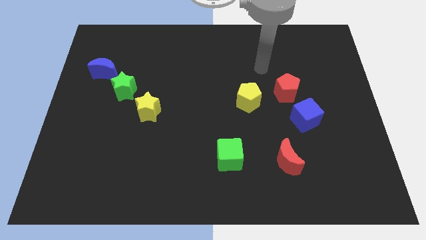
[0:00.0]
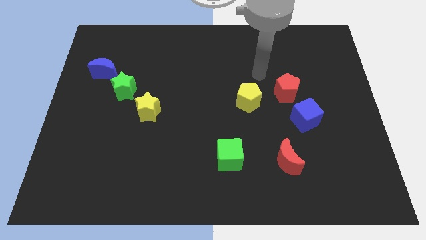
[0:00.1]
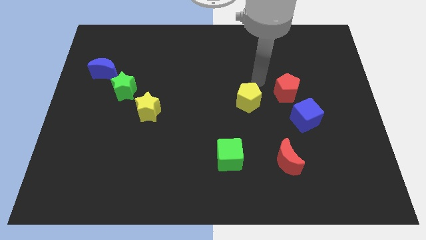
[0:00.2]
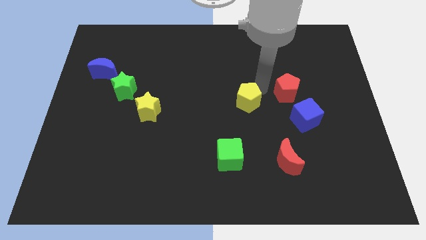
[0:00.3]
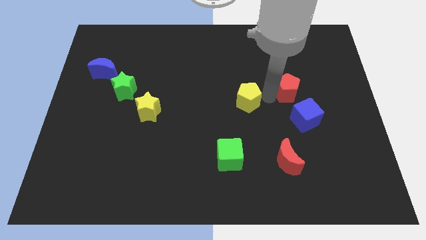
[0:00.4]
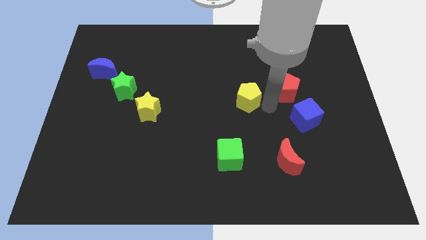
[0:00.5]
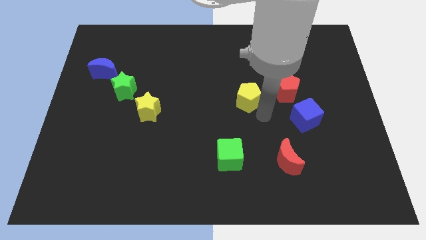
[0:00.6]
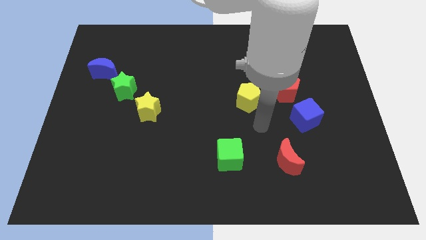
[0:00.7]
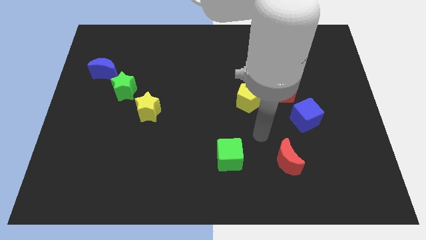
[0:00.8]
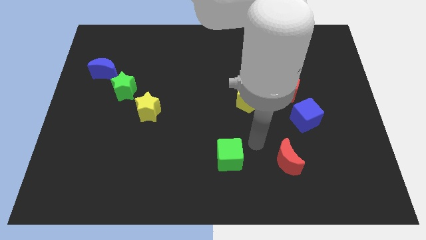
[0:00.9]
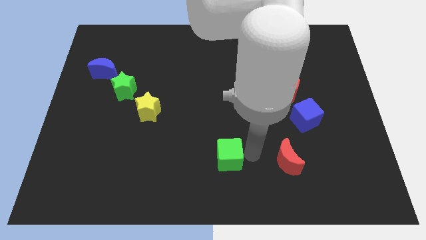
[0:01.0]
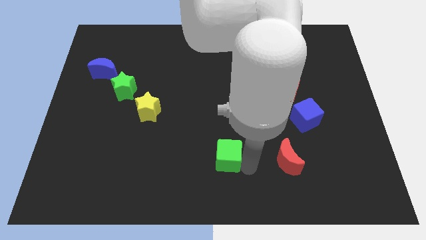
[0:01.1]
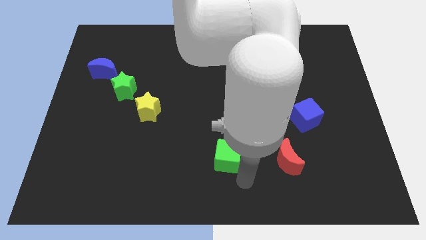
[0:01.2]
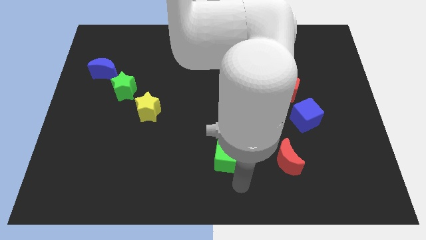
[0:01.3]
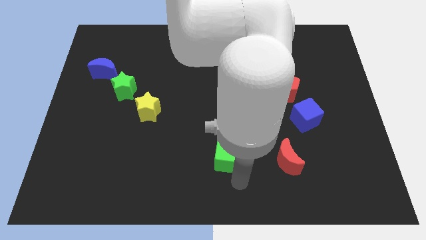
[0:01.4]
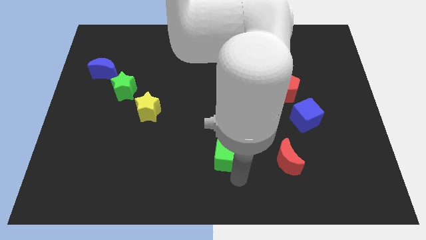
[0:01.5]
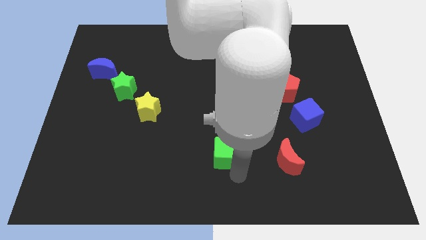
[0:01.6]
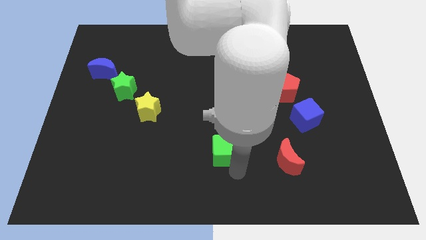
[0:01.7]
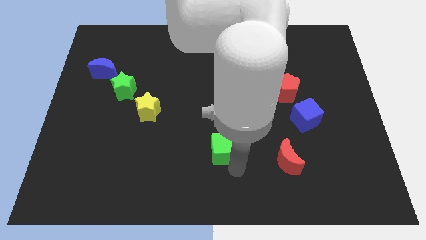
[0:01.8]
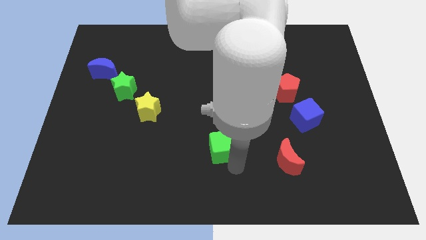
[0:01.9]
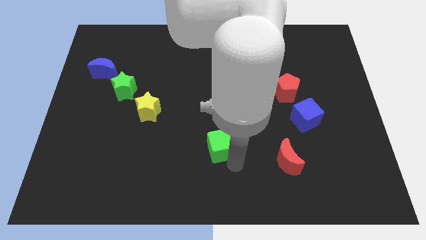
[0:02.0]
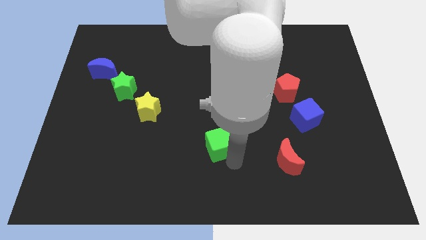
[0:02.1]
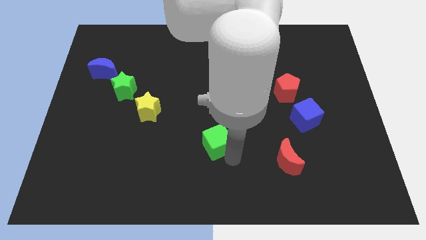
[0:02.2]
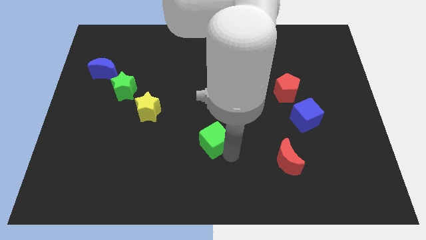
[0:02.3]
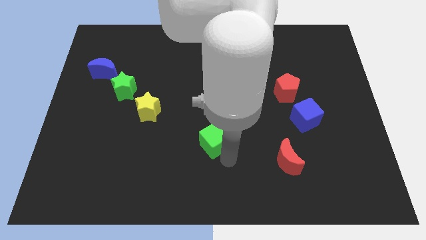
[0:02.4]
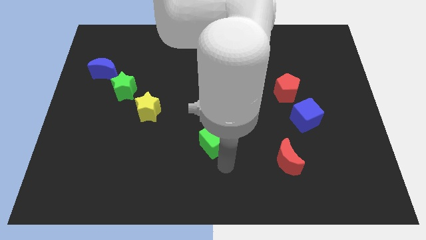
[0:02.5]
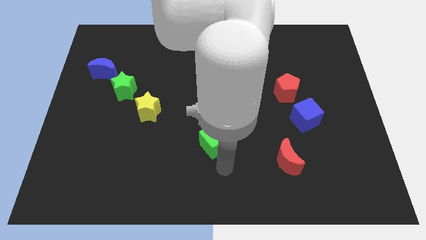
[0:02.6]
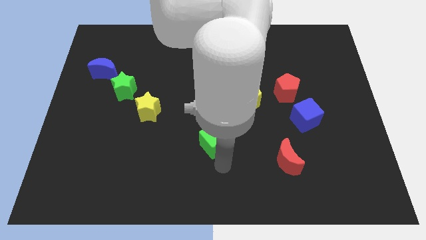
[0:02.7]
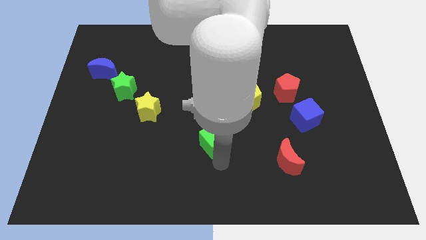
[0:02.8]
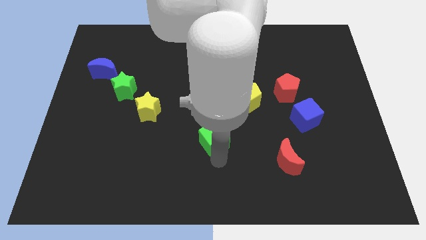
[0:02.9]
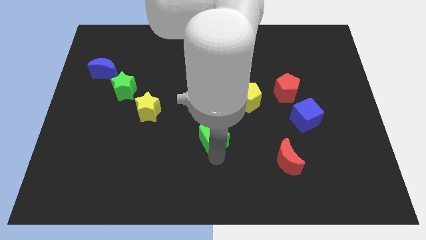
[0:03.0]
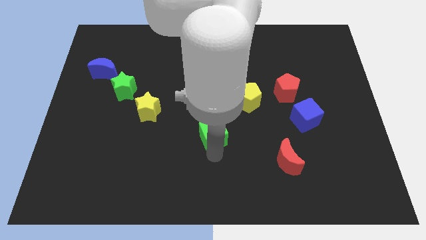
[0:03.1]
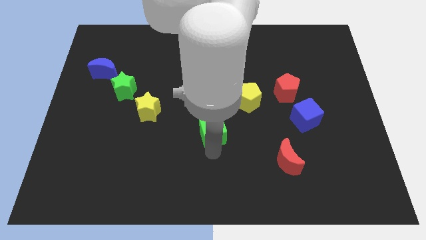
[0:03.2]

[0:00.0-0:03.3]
slightly push the green cube up and left diagonally

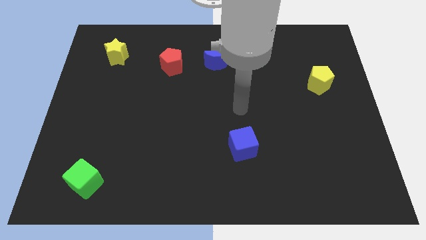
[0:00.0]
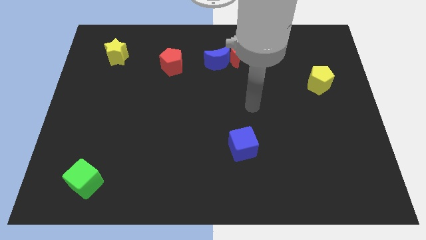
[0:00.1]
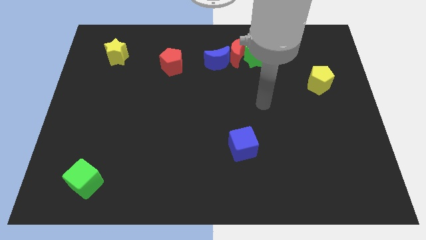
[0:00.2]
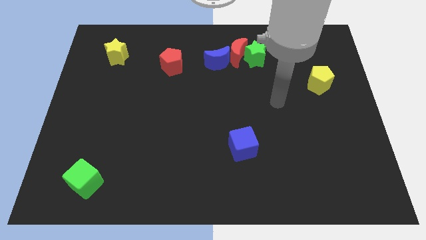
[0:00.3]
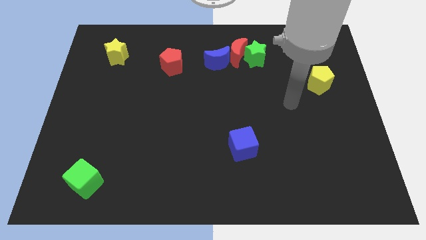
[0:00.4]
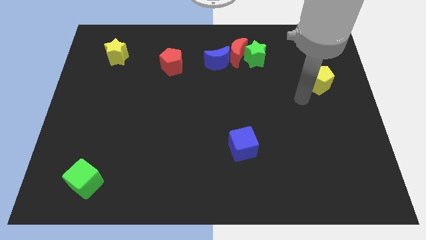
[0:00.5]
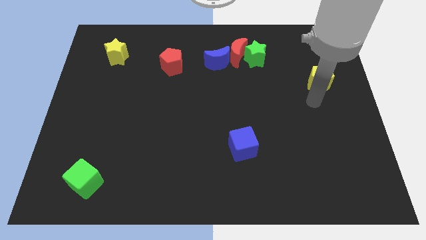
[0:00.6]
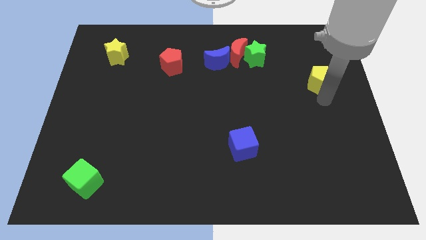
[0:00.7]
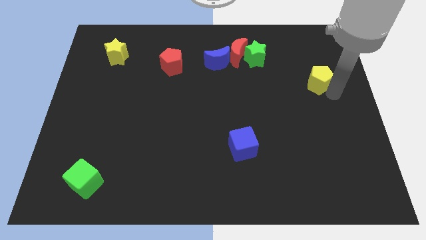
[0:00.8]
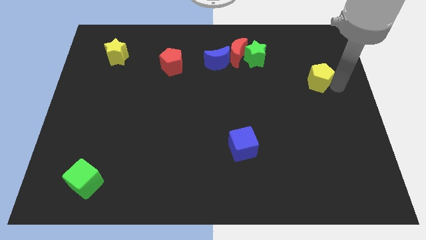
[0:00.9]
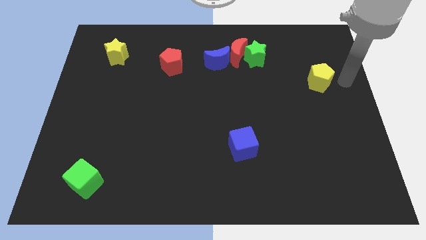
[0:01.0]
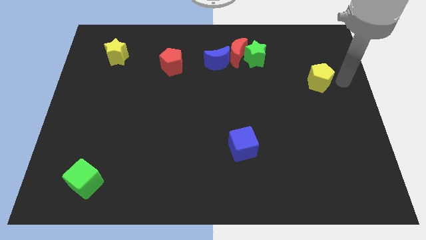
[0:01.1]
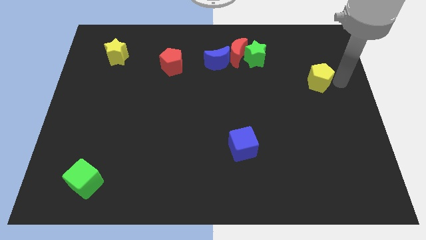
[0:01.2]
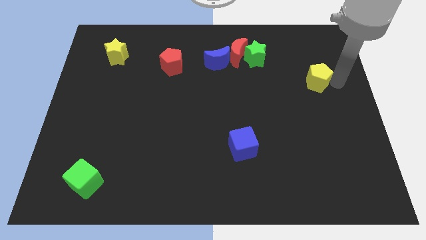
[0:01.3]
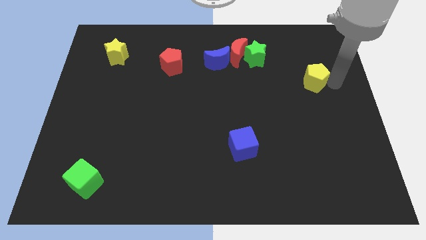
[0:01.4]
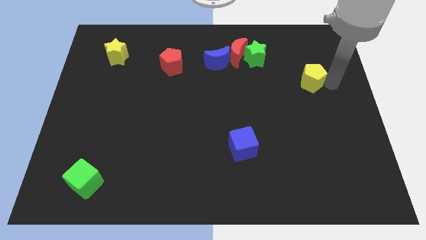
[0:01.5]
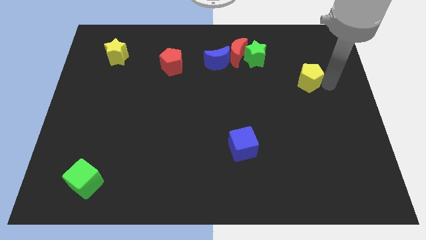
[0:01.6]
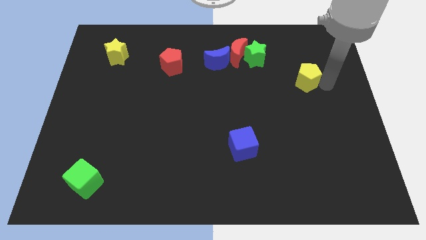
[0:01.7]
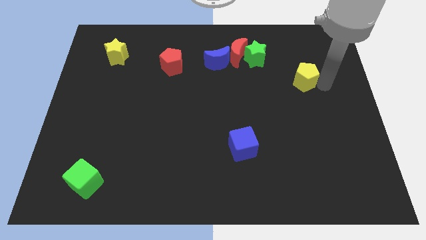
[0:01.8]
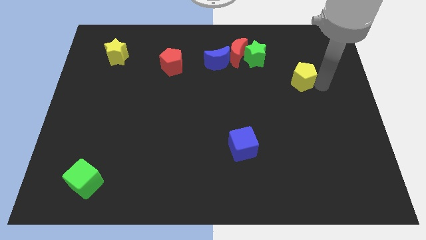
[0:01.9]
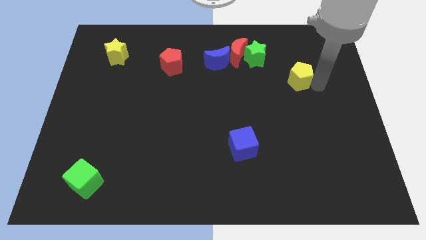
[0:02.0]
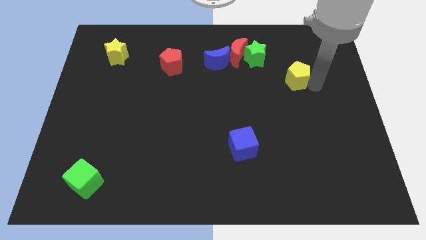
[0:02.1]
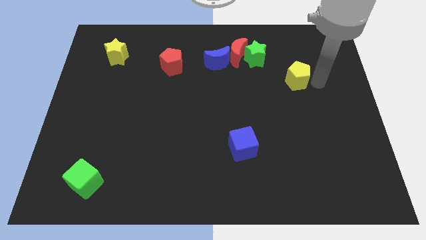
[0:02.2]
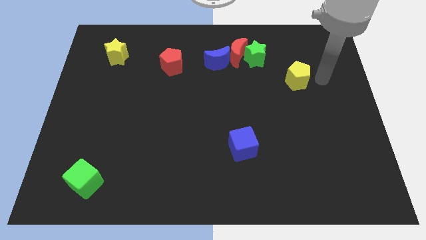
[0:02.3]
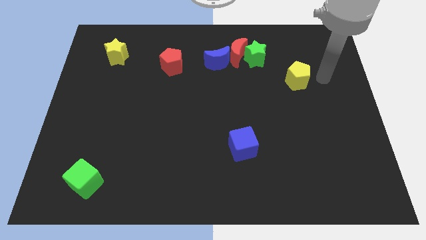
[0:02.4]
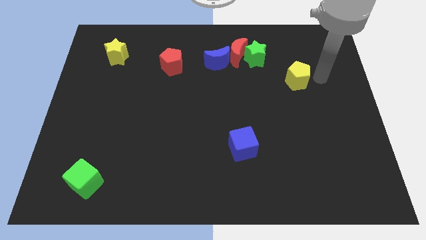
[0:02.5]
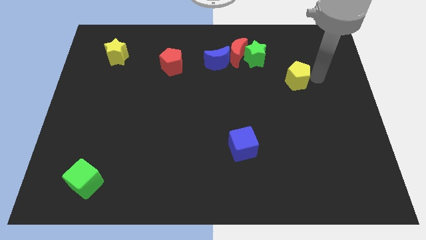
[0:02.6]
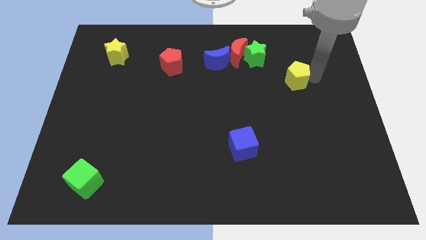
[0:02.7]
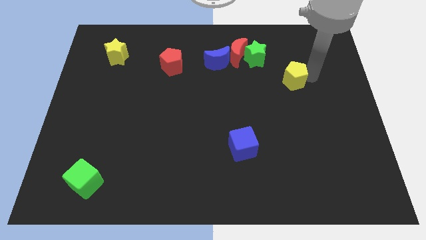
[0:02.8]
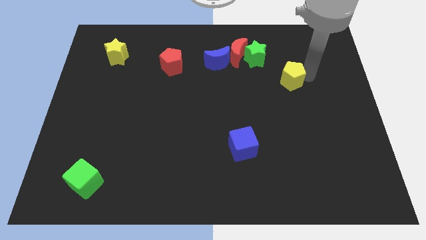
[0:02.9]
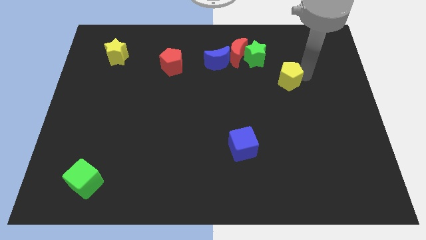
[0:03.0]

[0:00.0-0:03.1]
slightly move the yellow pentagon to the left

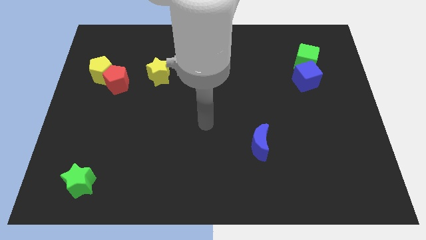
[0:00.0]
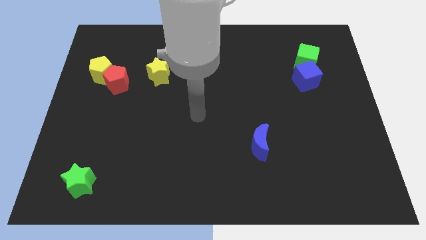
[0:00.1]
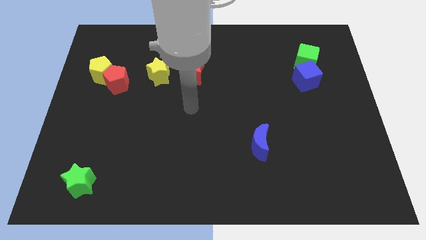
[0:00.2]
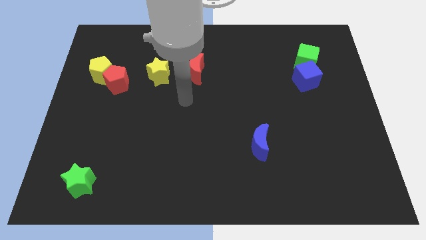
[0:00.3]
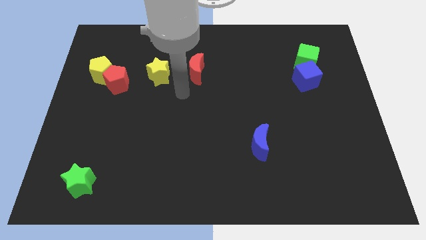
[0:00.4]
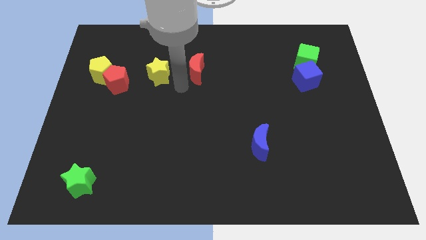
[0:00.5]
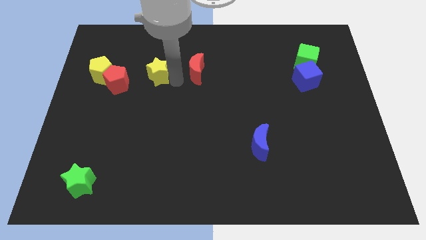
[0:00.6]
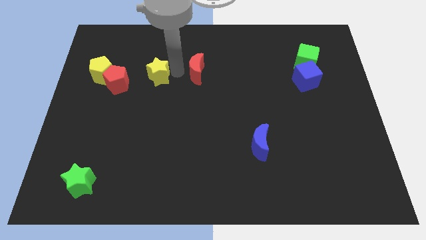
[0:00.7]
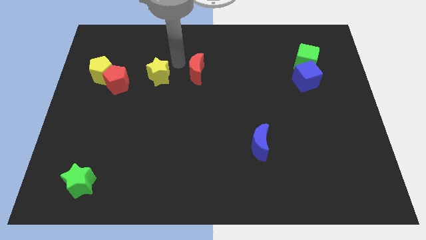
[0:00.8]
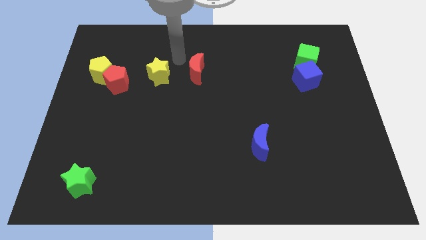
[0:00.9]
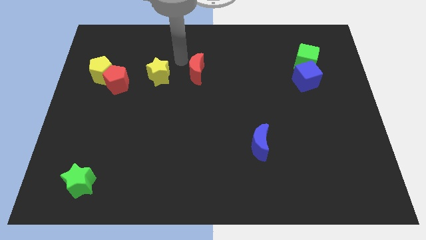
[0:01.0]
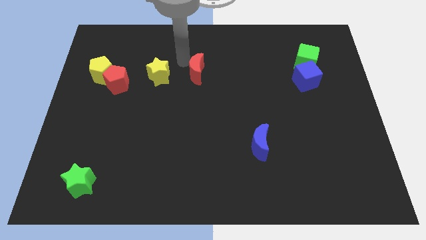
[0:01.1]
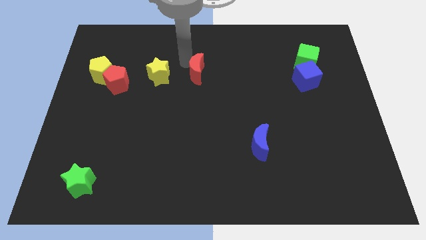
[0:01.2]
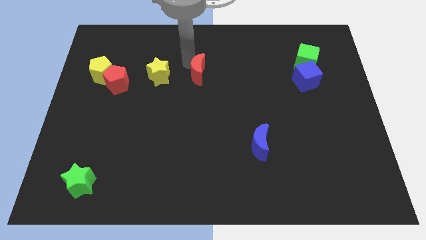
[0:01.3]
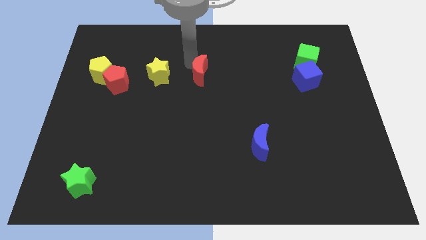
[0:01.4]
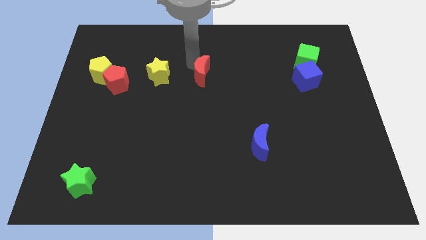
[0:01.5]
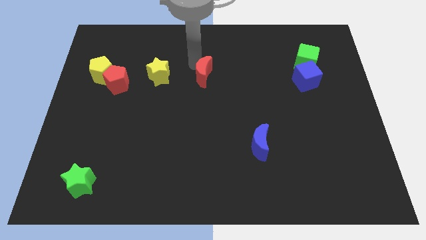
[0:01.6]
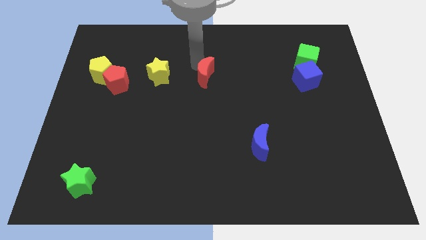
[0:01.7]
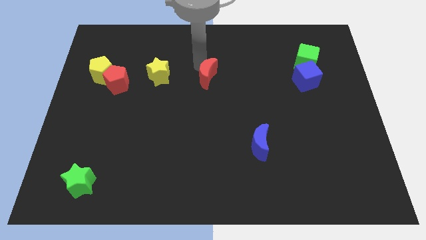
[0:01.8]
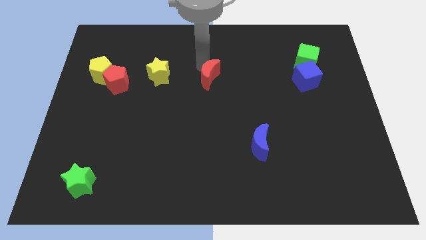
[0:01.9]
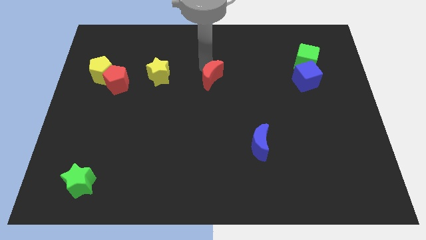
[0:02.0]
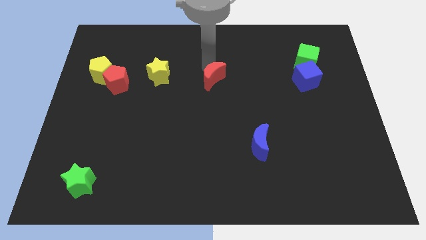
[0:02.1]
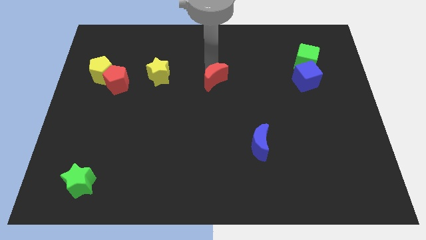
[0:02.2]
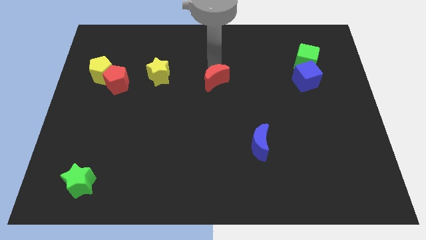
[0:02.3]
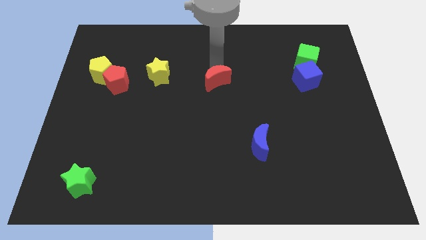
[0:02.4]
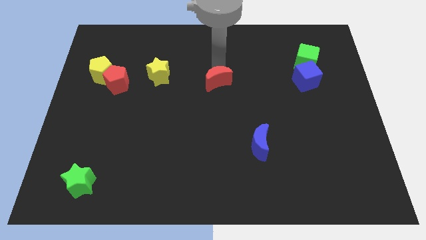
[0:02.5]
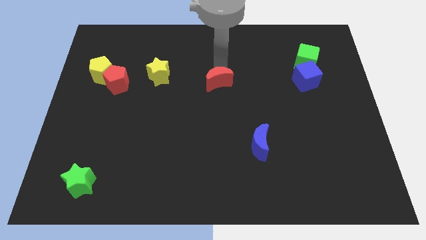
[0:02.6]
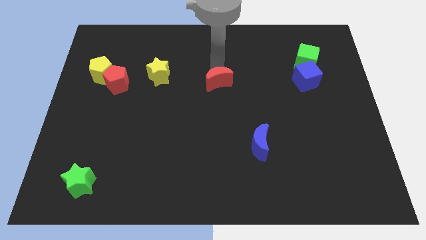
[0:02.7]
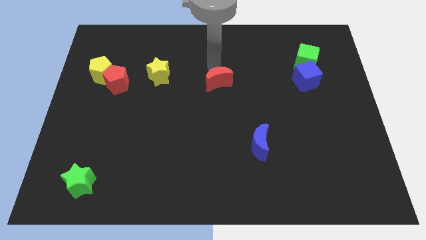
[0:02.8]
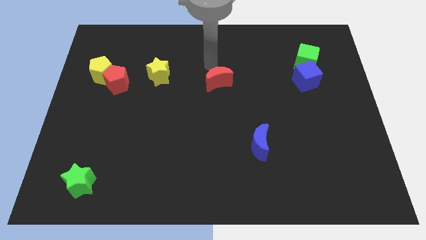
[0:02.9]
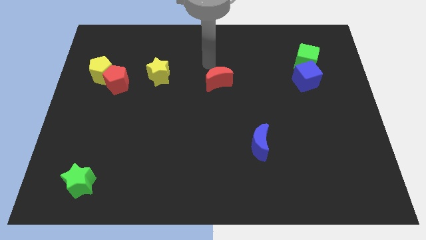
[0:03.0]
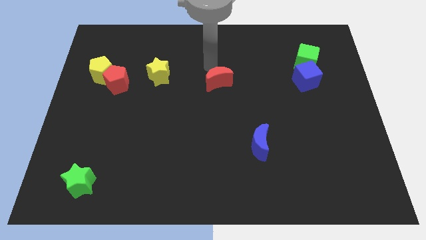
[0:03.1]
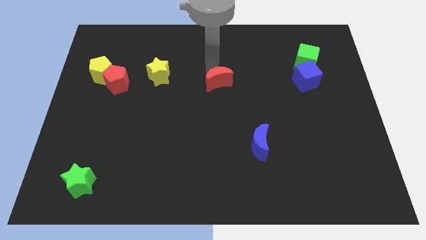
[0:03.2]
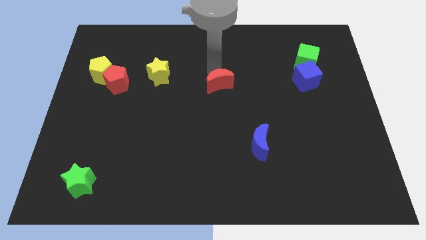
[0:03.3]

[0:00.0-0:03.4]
slightly push the red moon downwards and to the right diagonally
